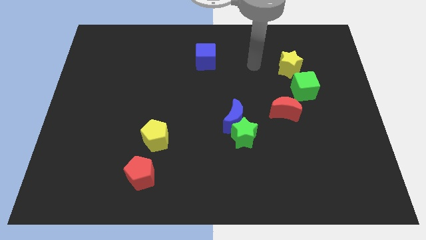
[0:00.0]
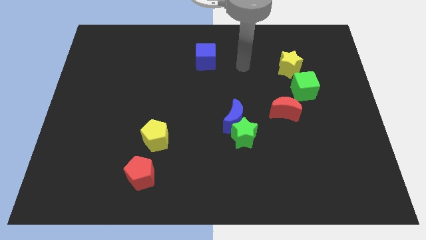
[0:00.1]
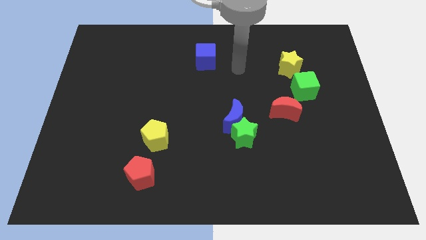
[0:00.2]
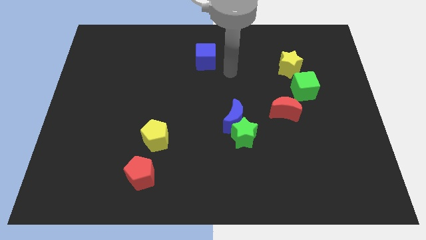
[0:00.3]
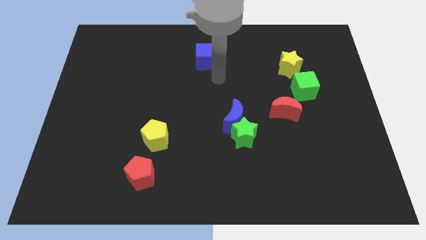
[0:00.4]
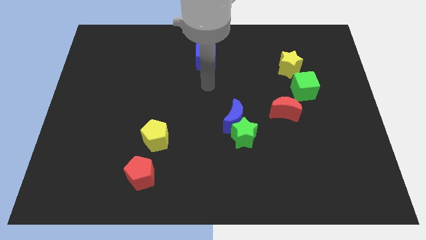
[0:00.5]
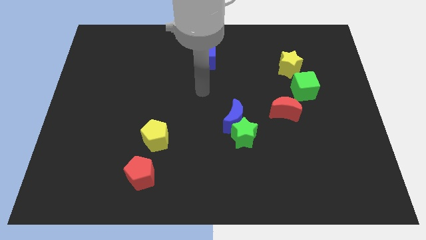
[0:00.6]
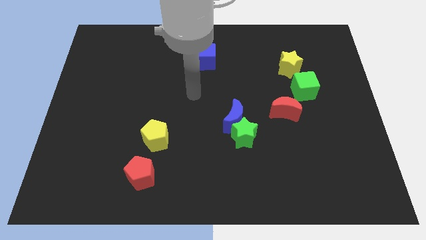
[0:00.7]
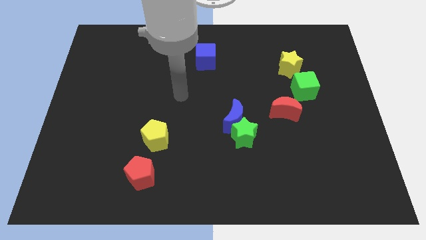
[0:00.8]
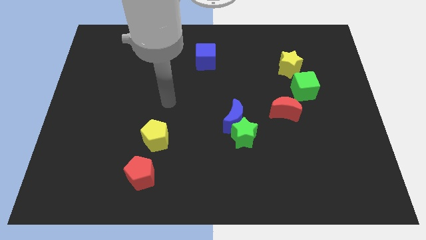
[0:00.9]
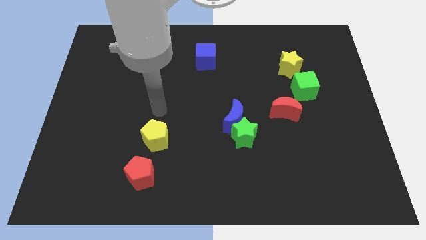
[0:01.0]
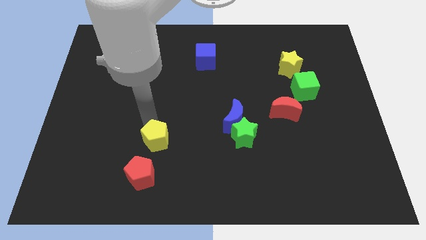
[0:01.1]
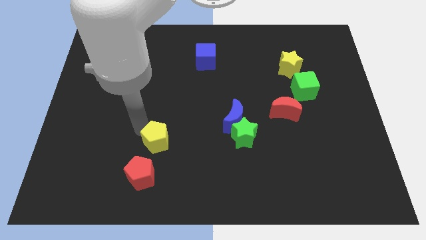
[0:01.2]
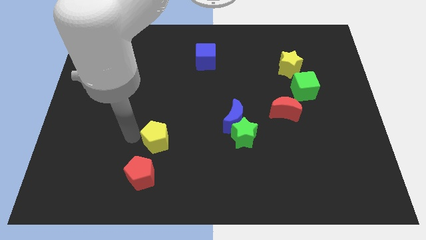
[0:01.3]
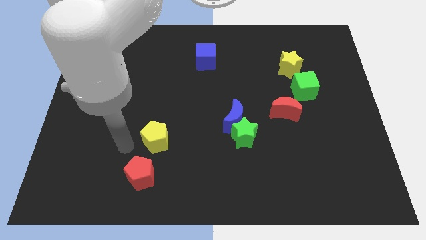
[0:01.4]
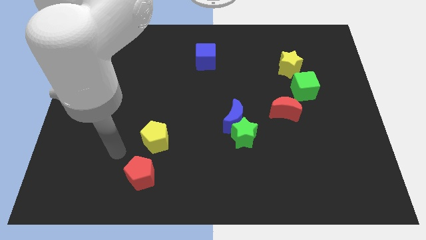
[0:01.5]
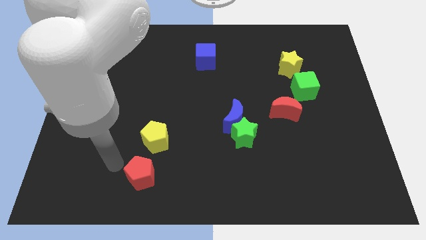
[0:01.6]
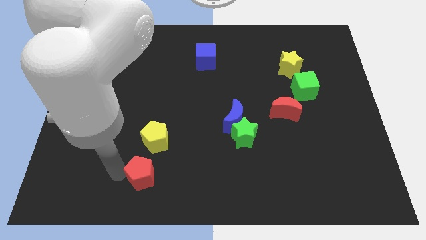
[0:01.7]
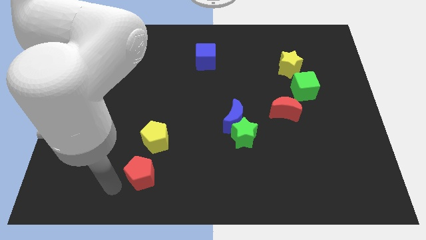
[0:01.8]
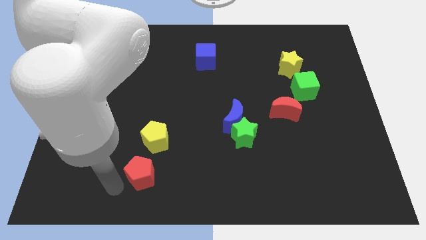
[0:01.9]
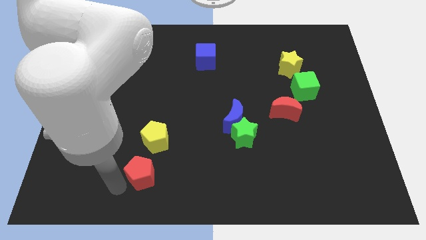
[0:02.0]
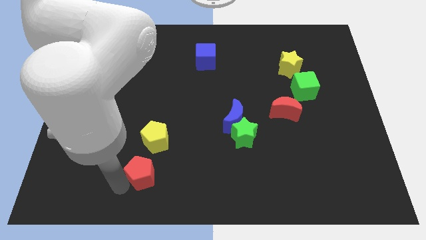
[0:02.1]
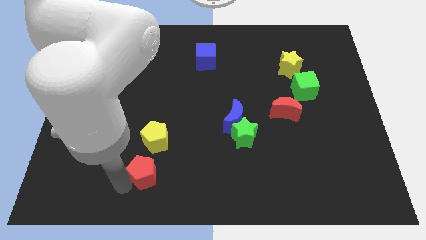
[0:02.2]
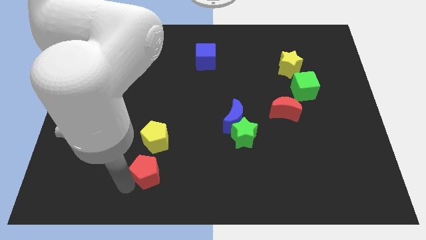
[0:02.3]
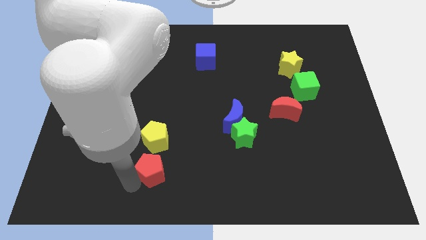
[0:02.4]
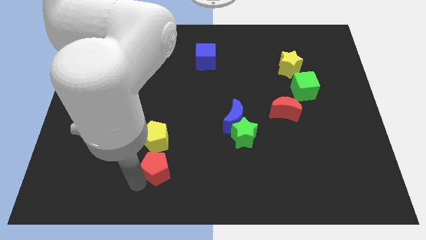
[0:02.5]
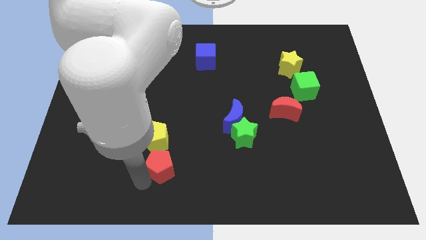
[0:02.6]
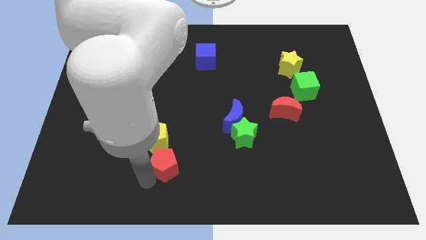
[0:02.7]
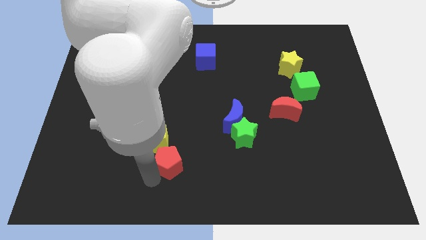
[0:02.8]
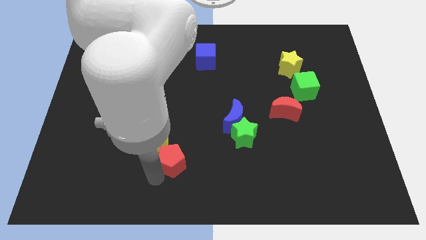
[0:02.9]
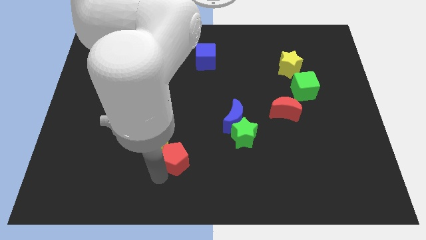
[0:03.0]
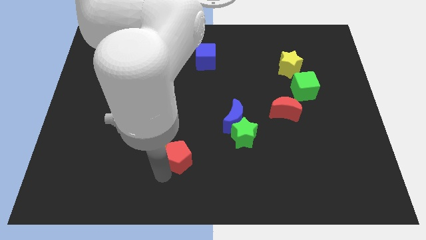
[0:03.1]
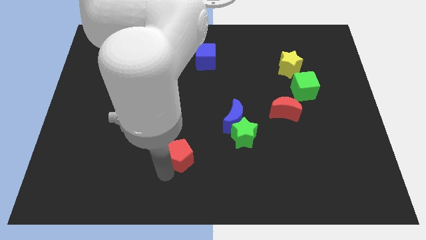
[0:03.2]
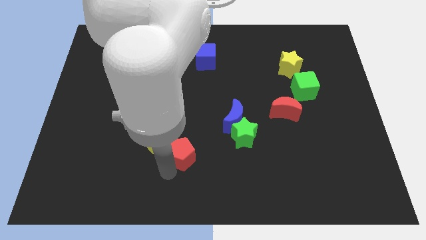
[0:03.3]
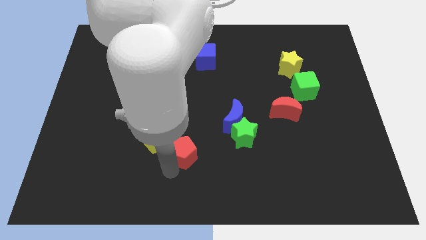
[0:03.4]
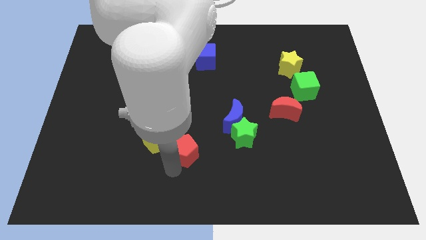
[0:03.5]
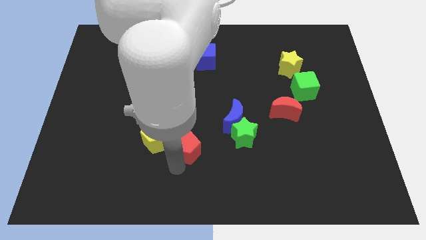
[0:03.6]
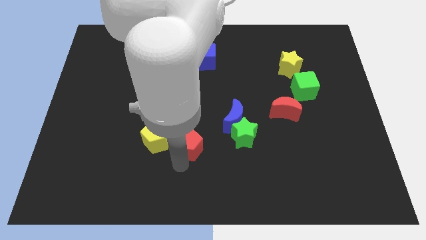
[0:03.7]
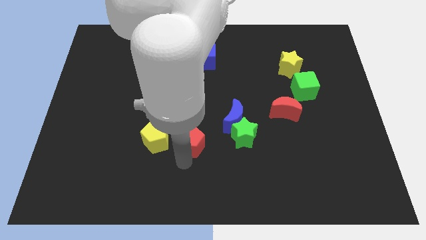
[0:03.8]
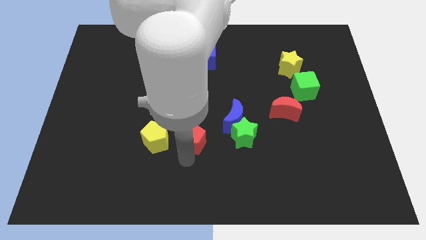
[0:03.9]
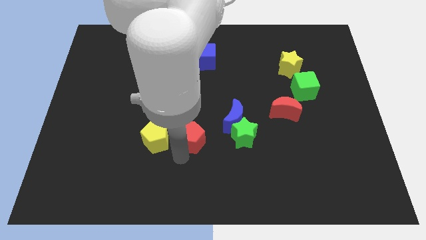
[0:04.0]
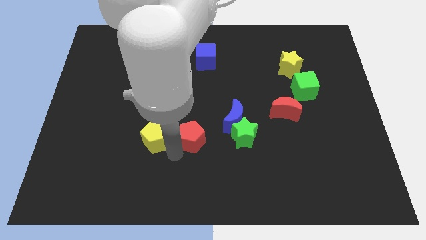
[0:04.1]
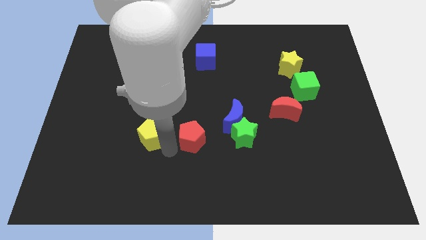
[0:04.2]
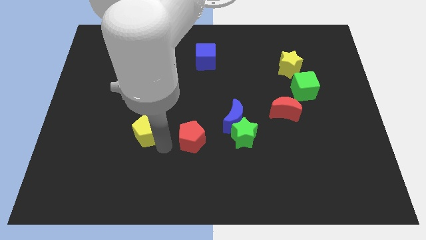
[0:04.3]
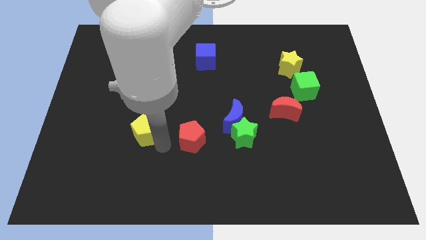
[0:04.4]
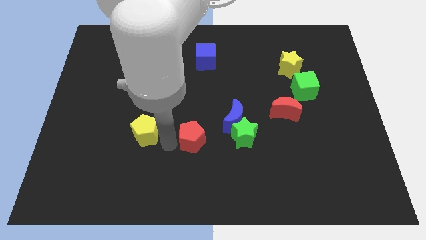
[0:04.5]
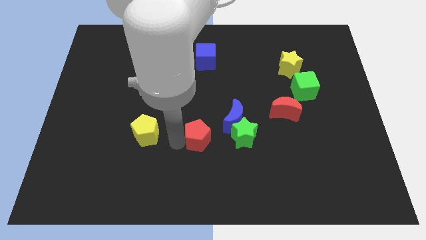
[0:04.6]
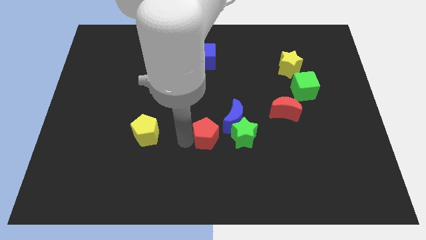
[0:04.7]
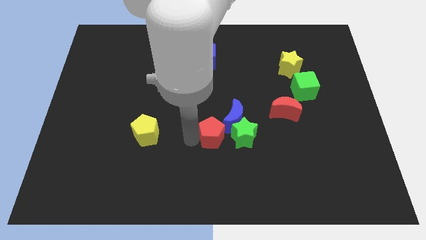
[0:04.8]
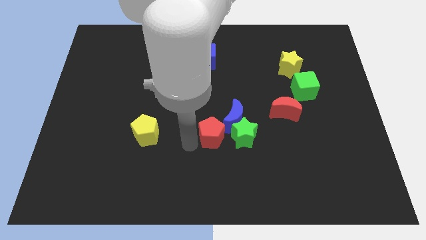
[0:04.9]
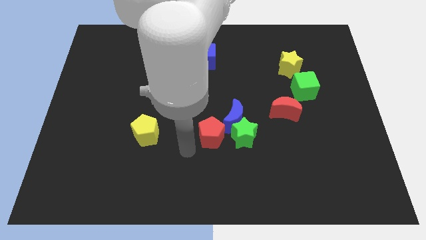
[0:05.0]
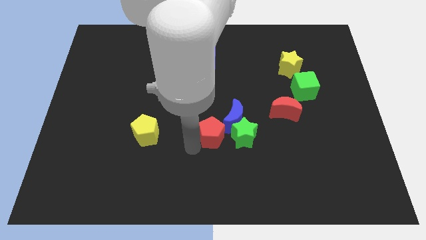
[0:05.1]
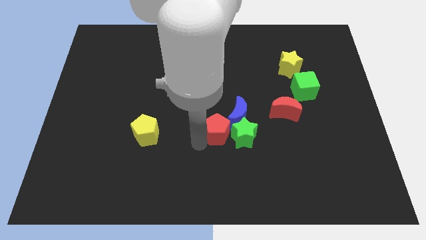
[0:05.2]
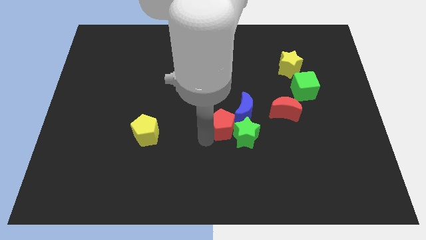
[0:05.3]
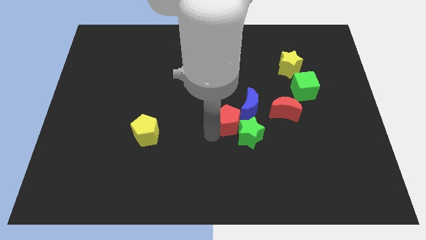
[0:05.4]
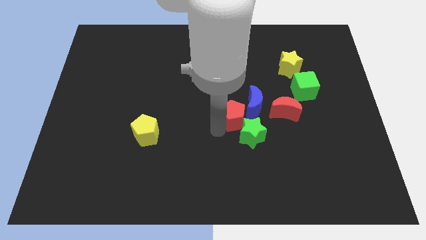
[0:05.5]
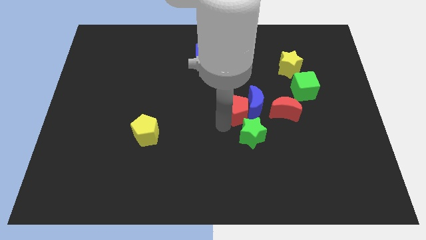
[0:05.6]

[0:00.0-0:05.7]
slide the red pentagon towards the blue moon

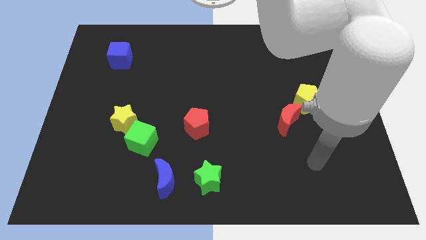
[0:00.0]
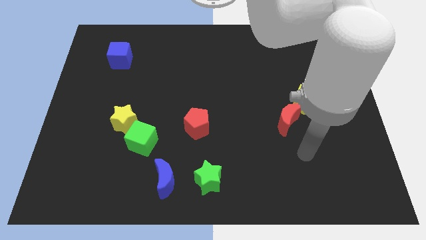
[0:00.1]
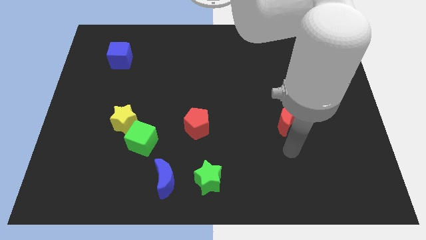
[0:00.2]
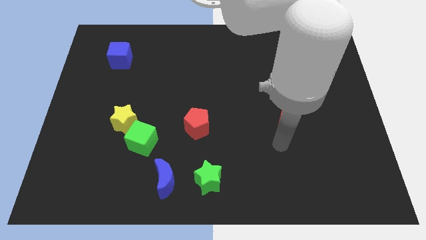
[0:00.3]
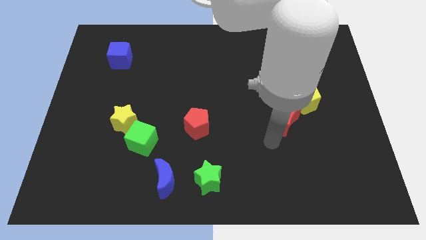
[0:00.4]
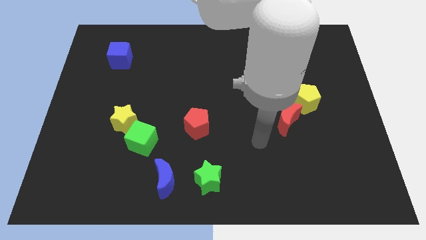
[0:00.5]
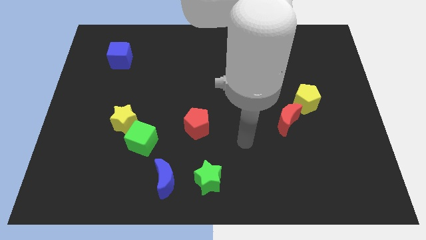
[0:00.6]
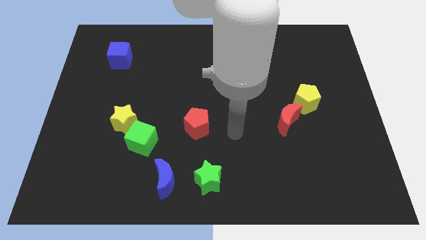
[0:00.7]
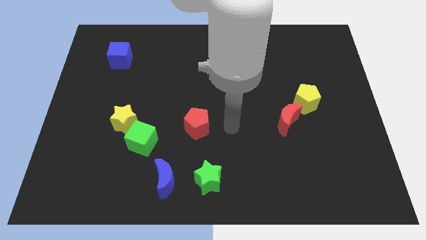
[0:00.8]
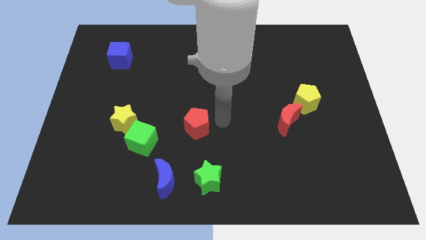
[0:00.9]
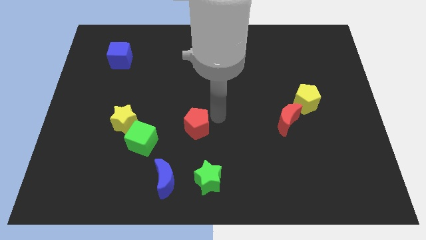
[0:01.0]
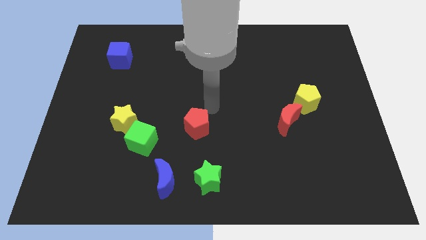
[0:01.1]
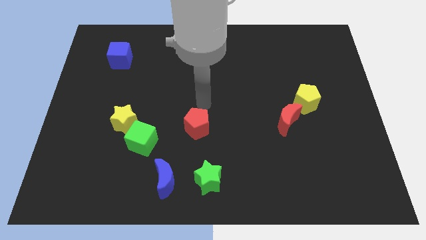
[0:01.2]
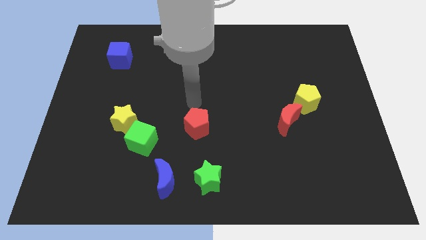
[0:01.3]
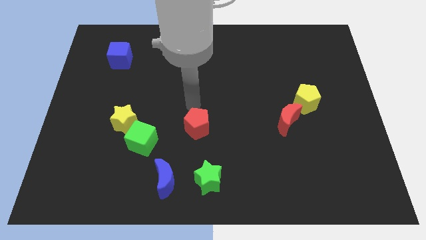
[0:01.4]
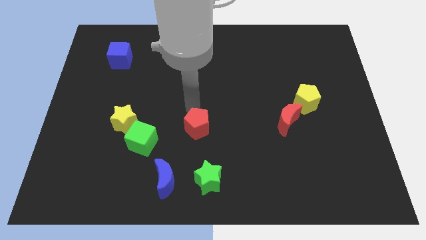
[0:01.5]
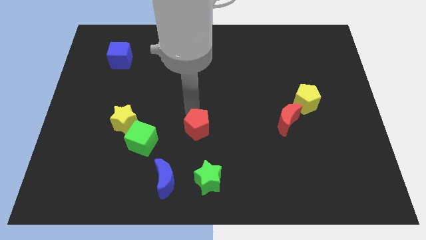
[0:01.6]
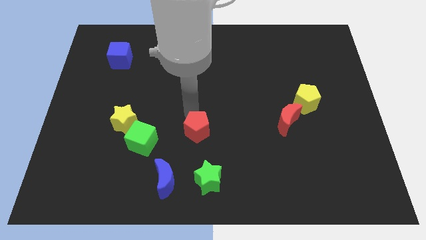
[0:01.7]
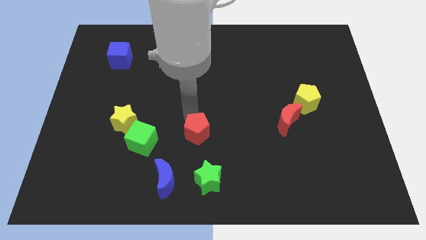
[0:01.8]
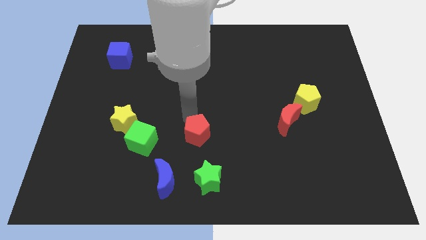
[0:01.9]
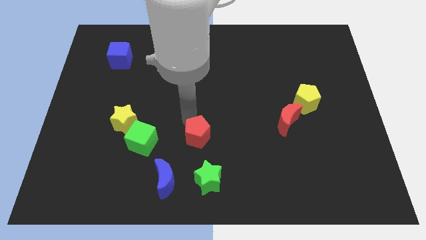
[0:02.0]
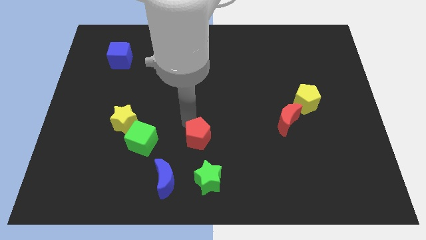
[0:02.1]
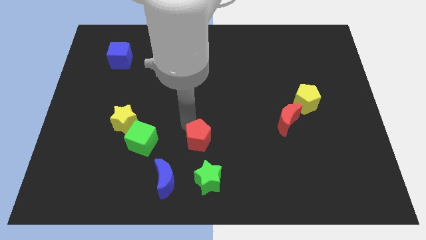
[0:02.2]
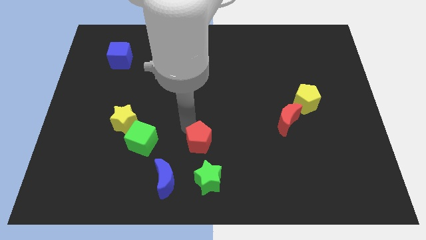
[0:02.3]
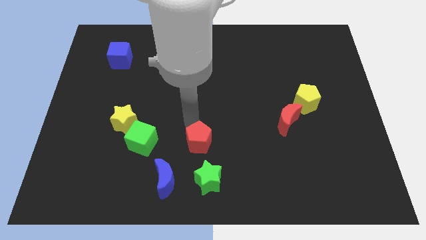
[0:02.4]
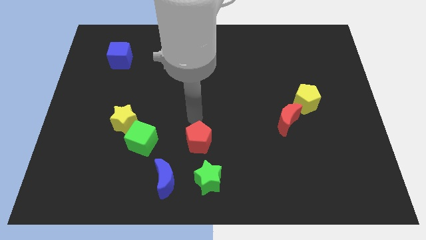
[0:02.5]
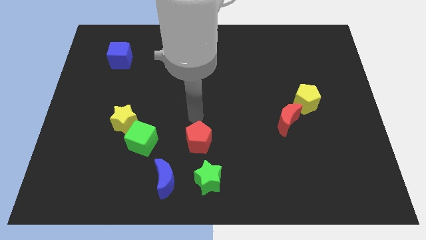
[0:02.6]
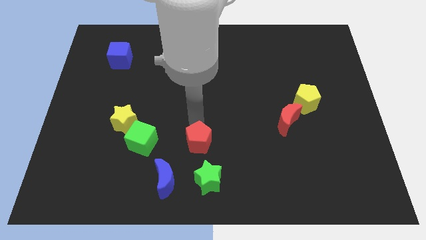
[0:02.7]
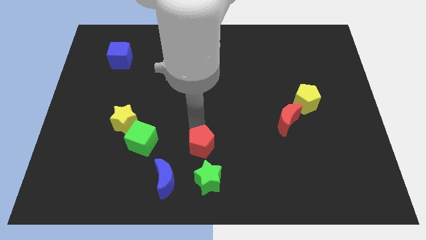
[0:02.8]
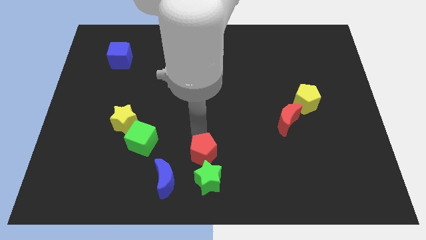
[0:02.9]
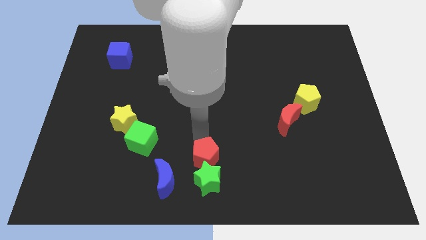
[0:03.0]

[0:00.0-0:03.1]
put the red pentagon next to the green star

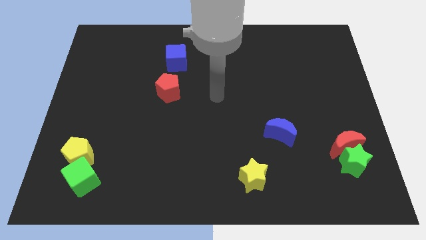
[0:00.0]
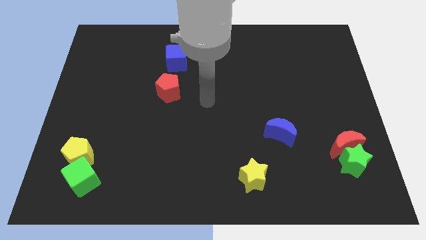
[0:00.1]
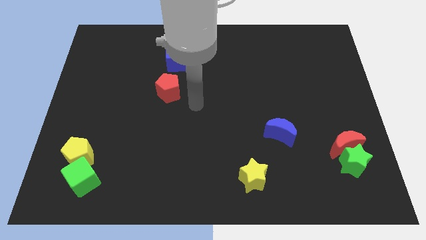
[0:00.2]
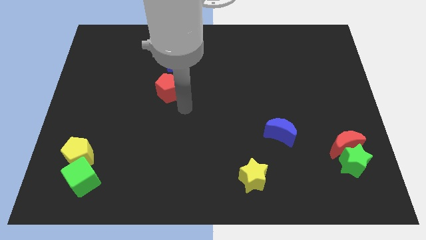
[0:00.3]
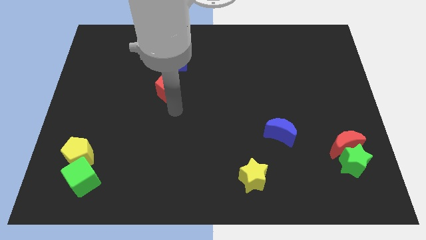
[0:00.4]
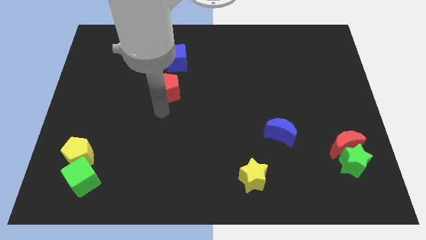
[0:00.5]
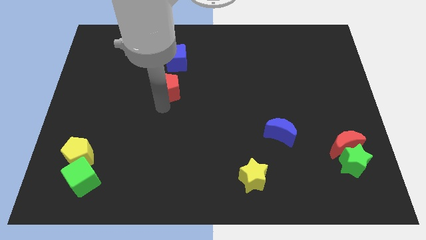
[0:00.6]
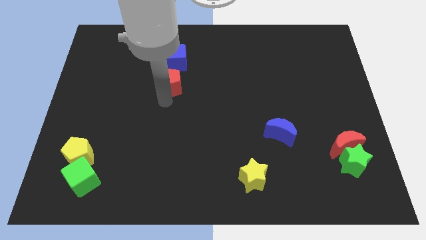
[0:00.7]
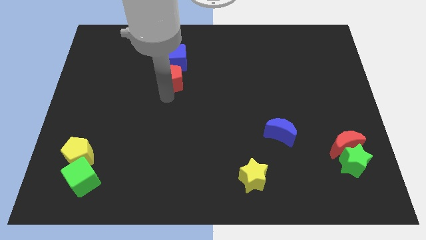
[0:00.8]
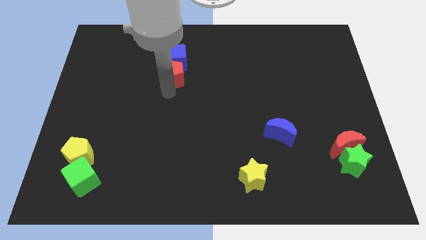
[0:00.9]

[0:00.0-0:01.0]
put the red pentagon towards the blue cube
